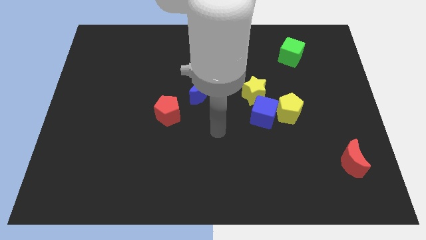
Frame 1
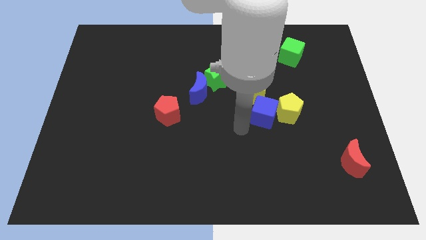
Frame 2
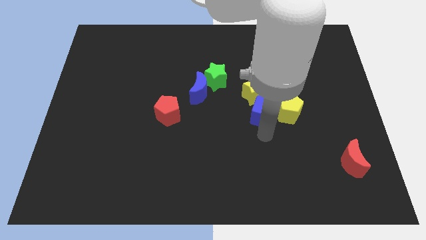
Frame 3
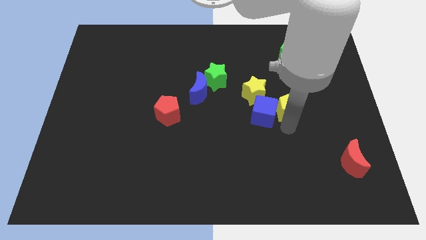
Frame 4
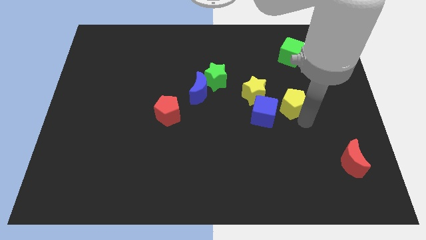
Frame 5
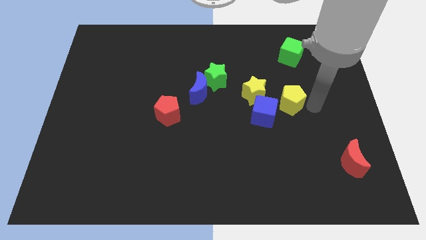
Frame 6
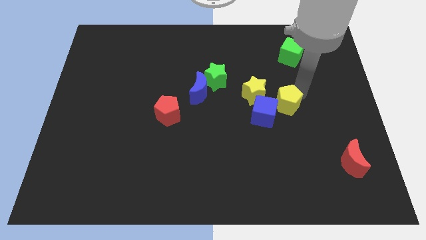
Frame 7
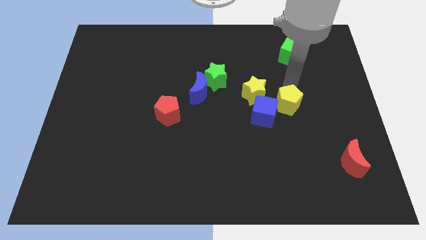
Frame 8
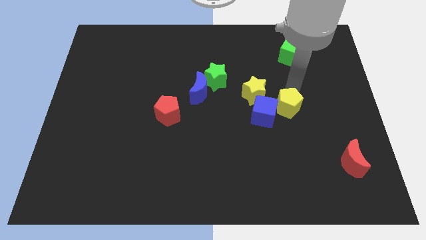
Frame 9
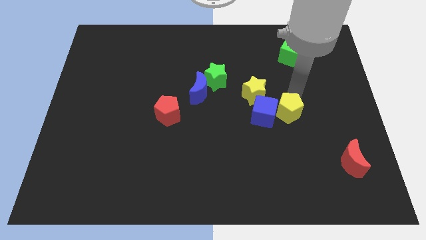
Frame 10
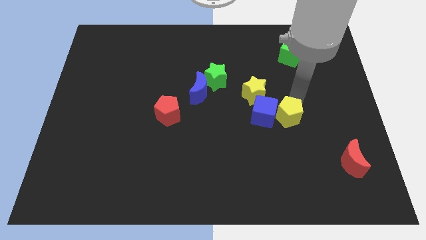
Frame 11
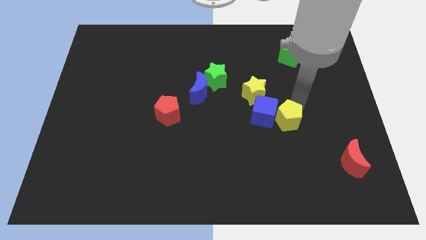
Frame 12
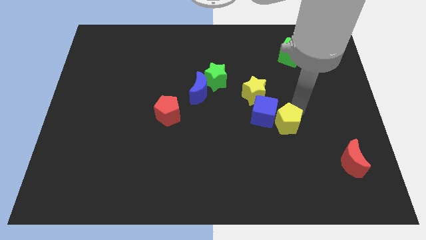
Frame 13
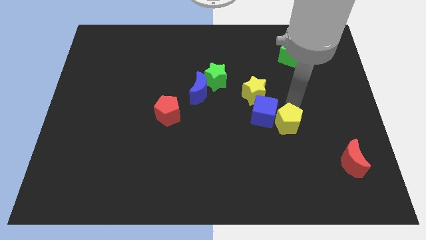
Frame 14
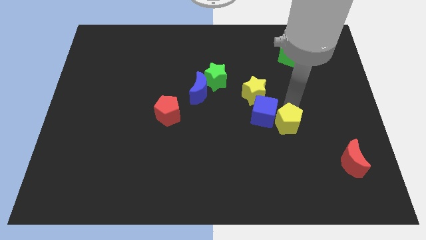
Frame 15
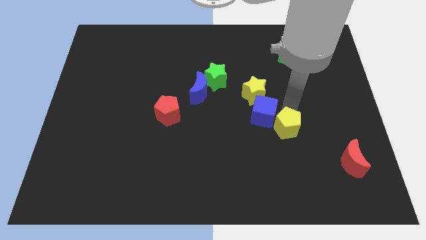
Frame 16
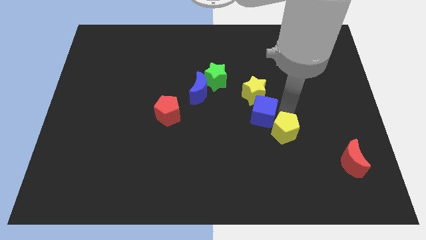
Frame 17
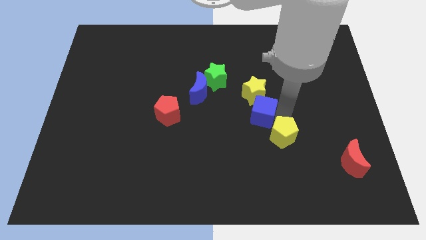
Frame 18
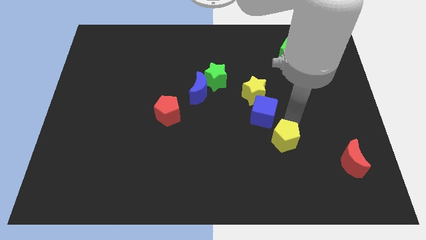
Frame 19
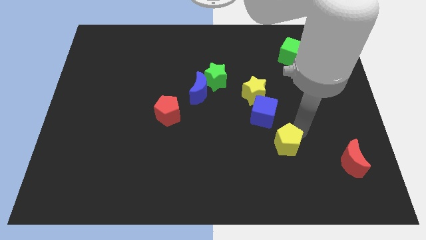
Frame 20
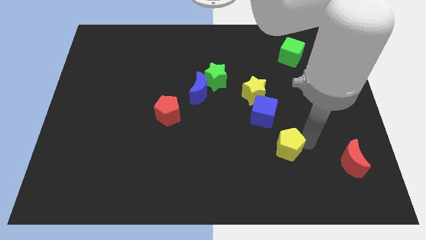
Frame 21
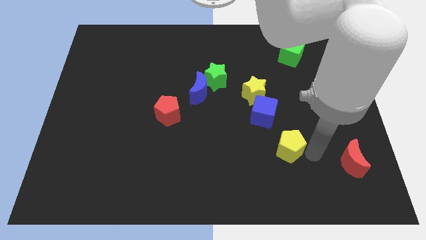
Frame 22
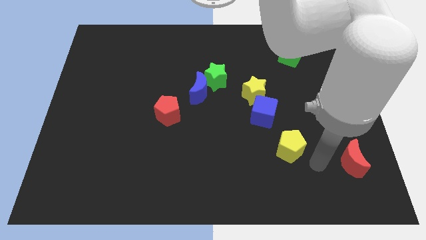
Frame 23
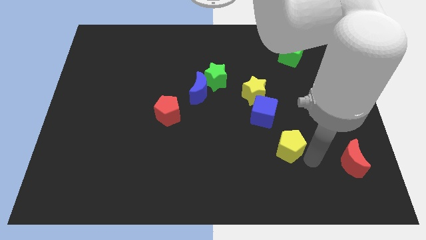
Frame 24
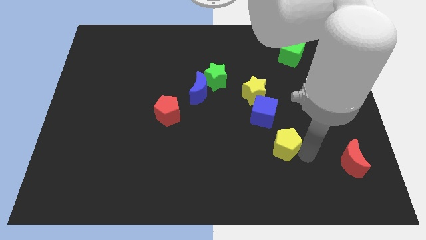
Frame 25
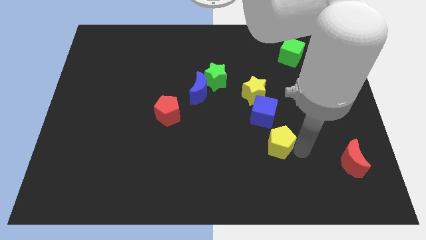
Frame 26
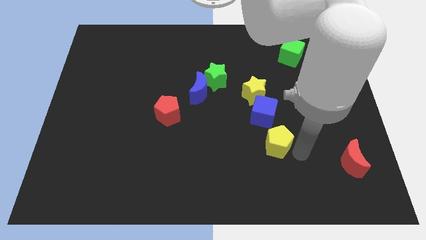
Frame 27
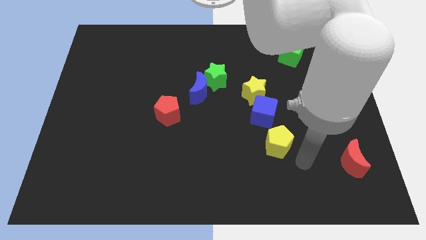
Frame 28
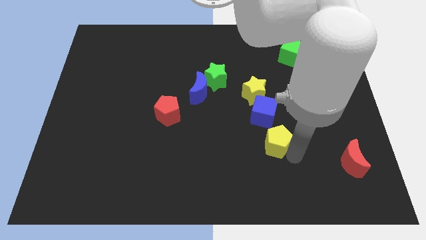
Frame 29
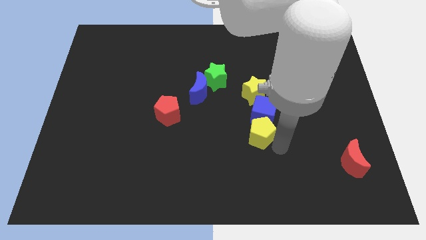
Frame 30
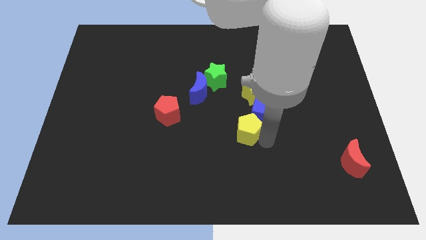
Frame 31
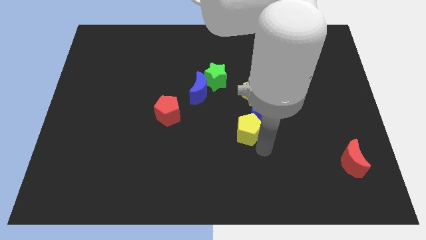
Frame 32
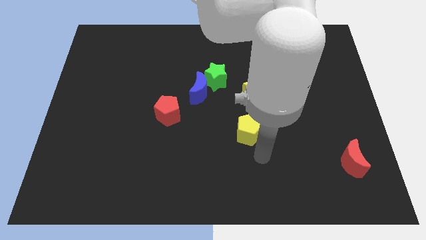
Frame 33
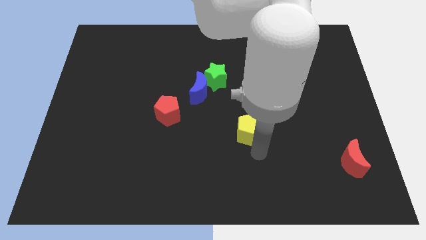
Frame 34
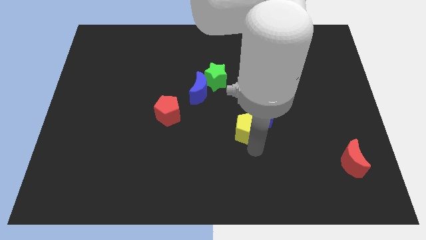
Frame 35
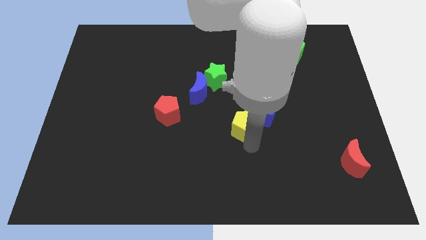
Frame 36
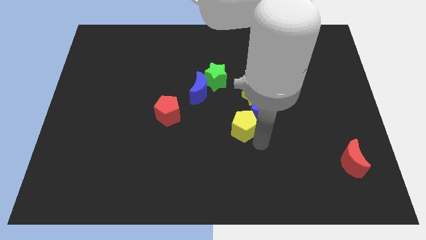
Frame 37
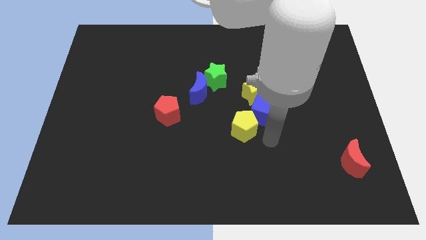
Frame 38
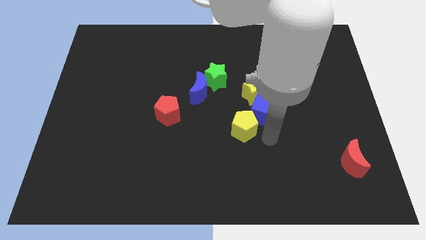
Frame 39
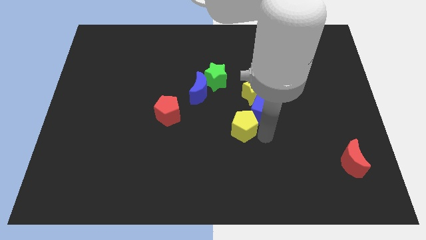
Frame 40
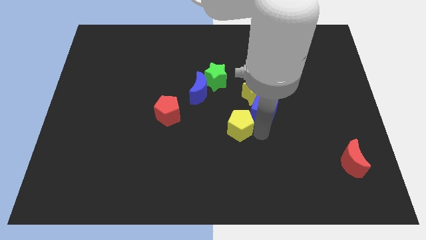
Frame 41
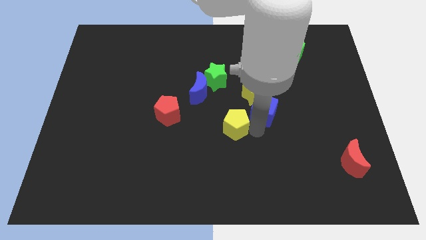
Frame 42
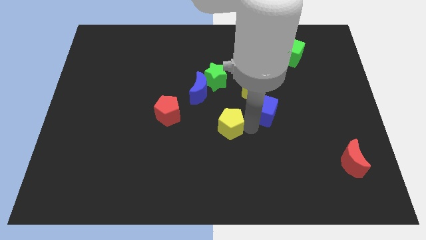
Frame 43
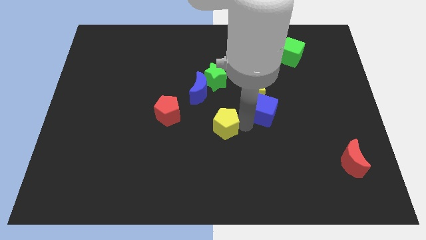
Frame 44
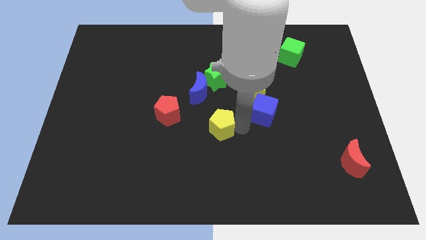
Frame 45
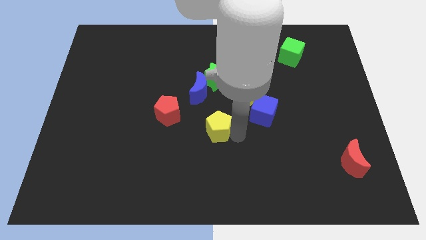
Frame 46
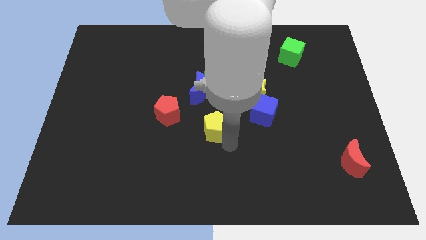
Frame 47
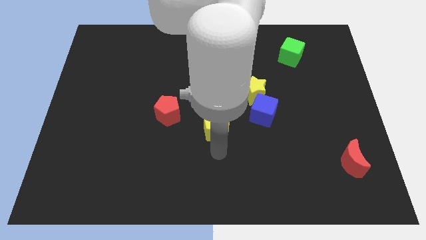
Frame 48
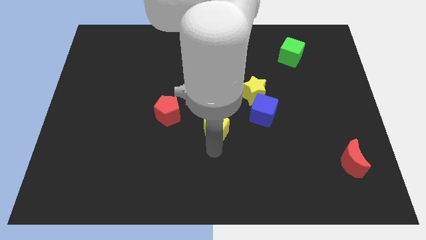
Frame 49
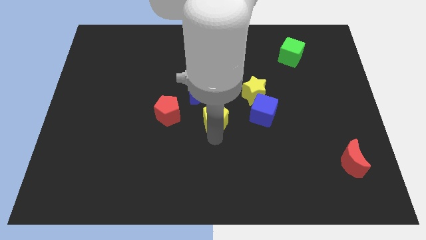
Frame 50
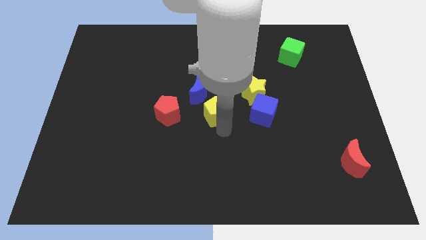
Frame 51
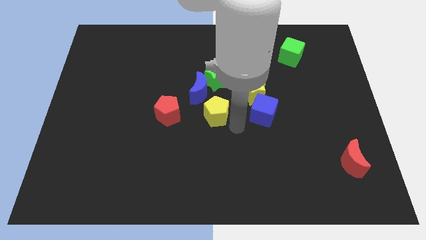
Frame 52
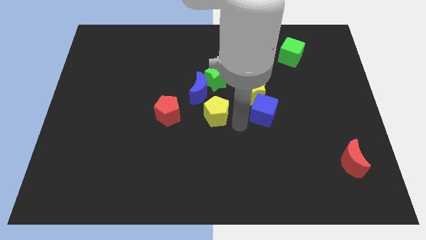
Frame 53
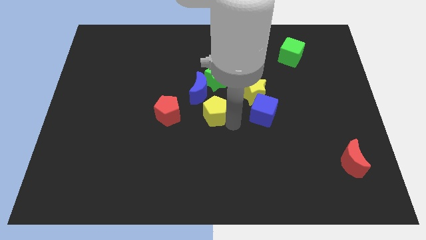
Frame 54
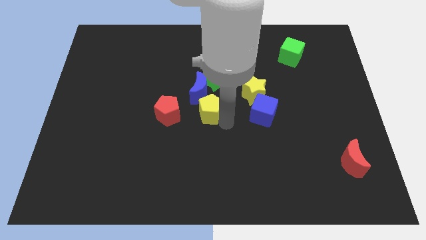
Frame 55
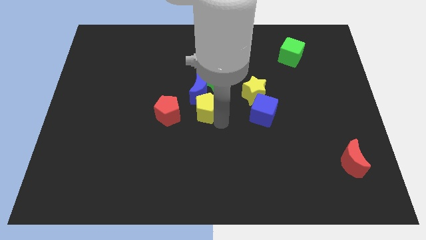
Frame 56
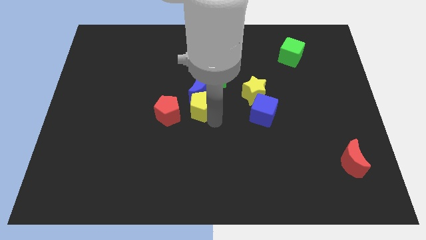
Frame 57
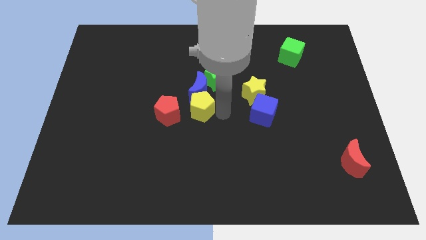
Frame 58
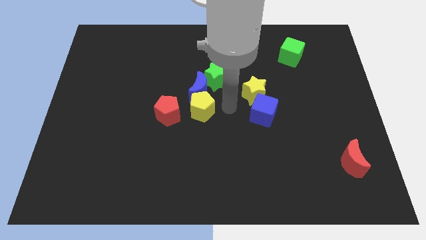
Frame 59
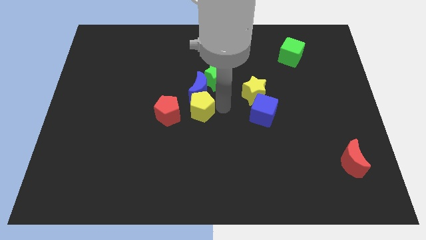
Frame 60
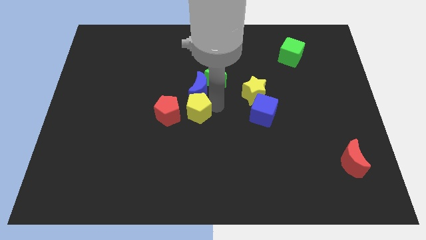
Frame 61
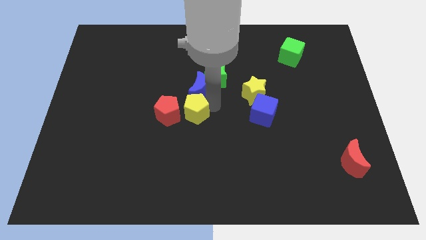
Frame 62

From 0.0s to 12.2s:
slide the yellow pentagon next to the red pentagon

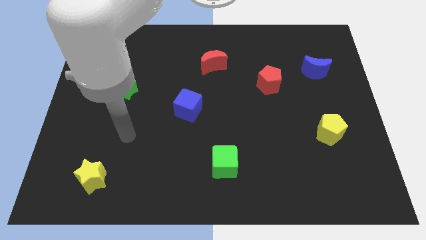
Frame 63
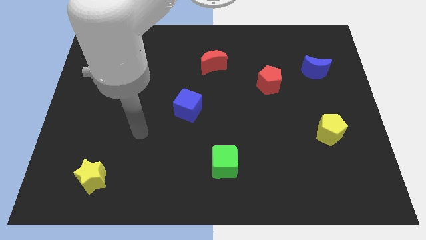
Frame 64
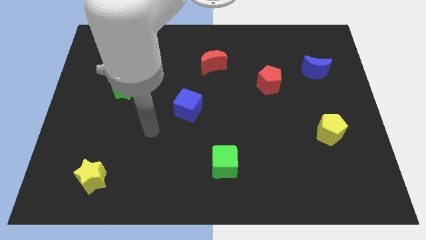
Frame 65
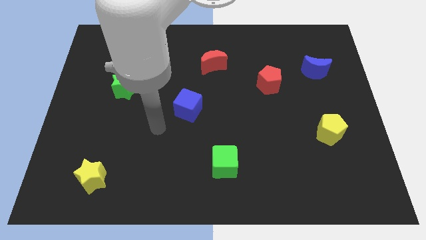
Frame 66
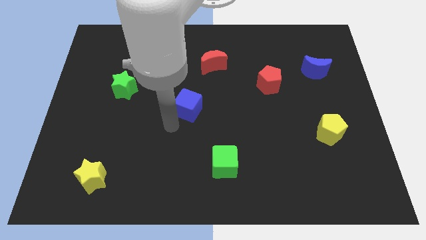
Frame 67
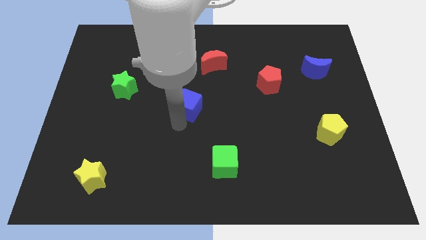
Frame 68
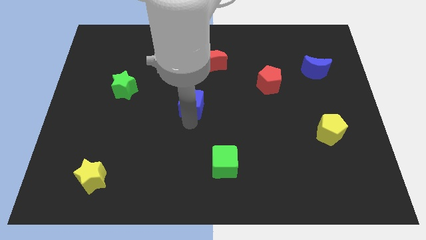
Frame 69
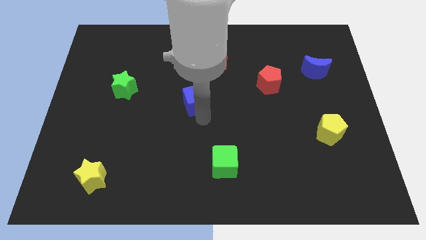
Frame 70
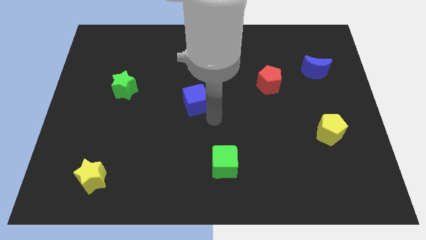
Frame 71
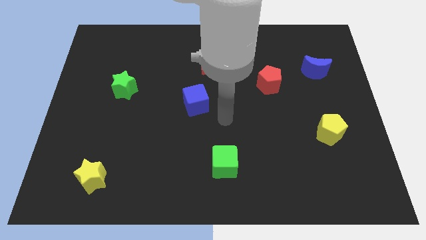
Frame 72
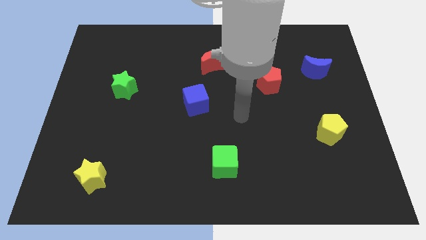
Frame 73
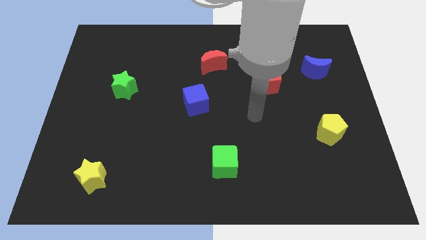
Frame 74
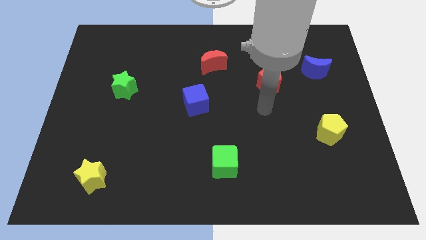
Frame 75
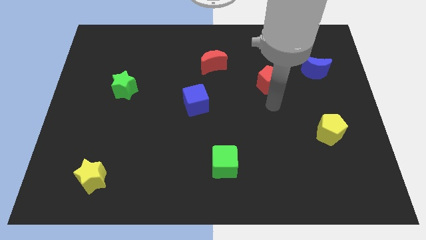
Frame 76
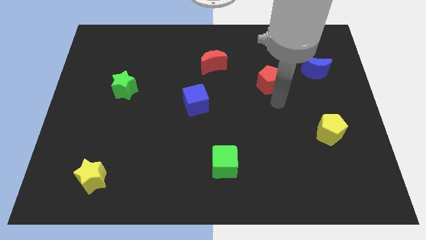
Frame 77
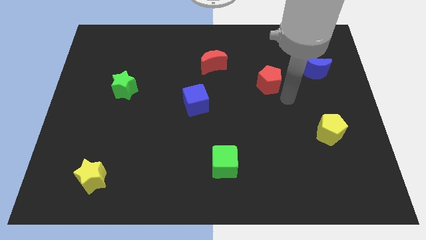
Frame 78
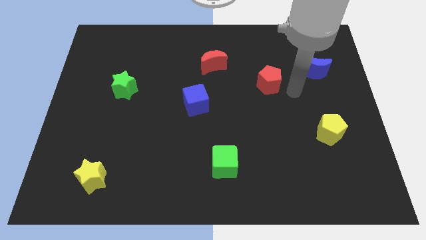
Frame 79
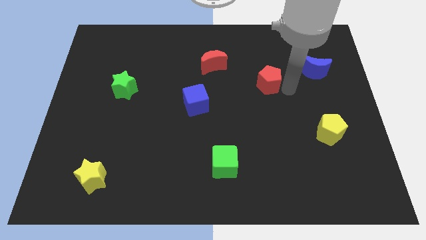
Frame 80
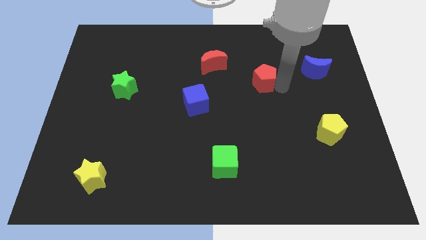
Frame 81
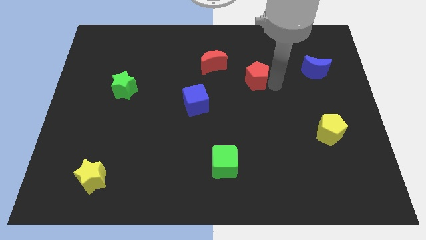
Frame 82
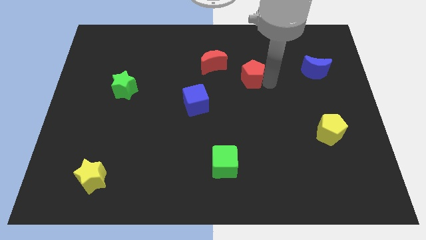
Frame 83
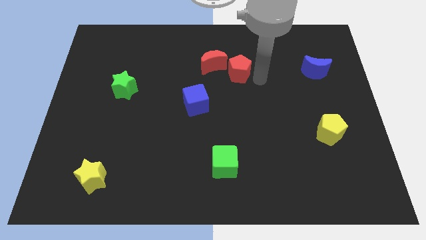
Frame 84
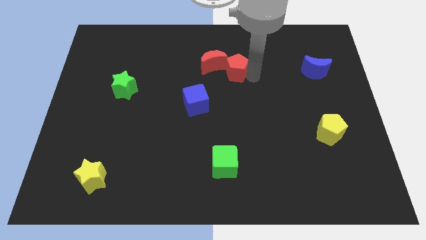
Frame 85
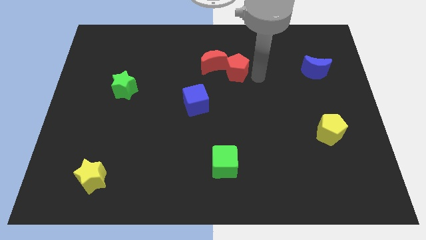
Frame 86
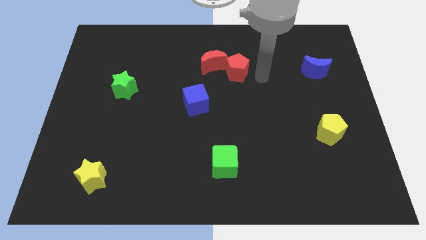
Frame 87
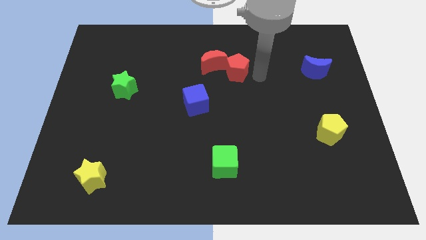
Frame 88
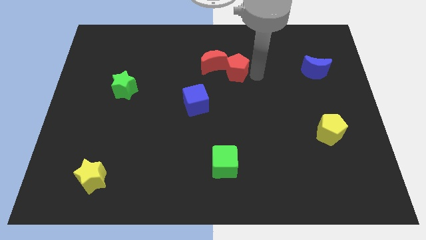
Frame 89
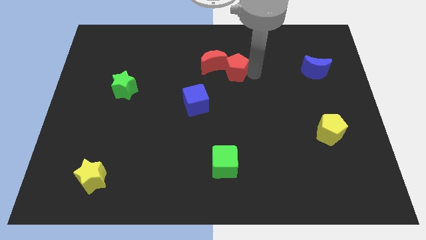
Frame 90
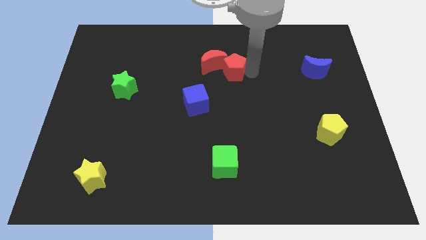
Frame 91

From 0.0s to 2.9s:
push the red pentagon towards the red moon
